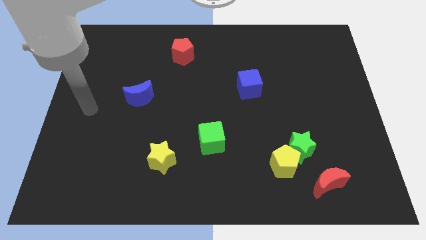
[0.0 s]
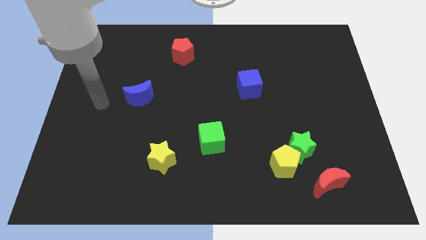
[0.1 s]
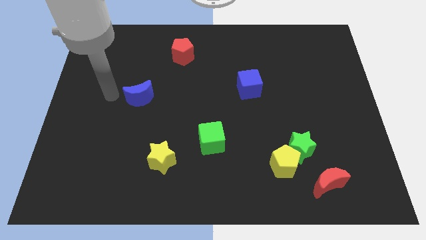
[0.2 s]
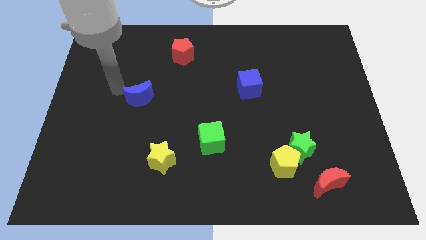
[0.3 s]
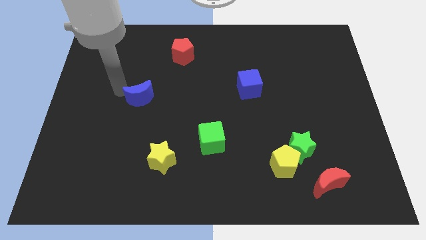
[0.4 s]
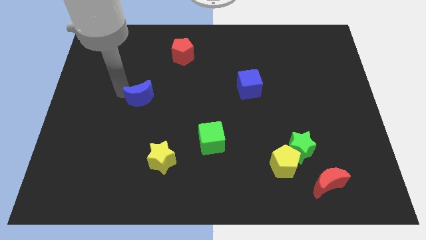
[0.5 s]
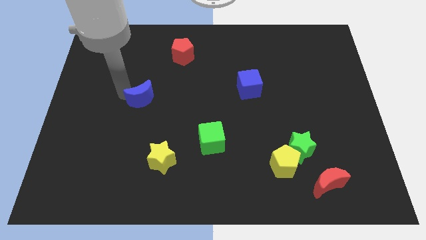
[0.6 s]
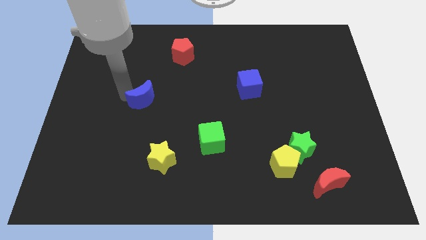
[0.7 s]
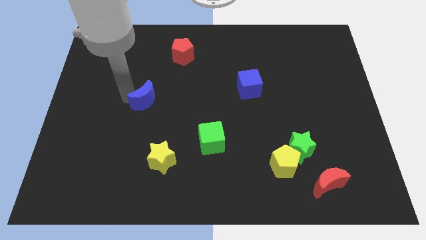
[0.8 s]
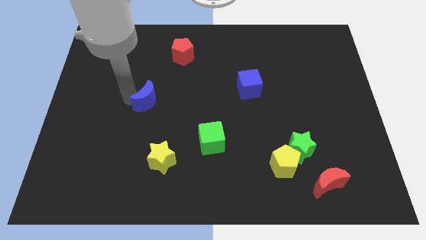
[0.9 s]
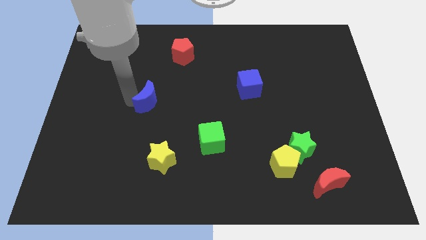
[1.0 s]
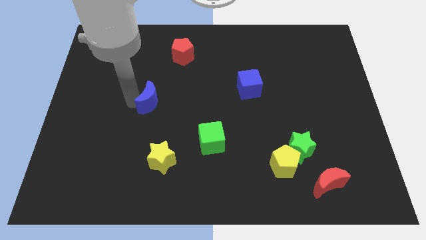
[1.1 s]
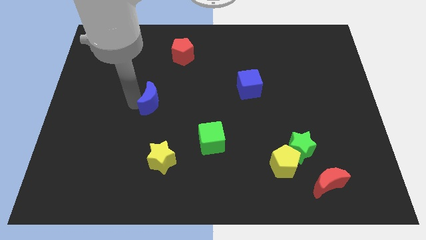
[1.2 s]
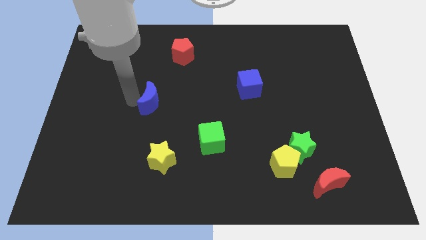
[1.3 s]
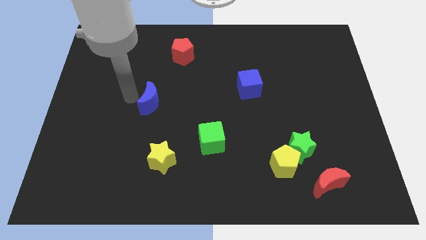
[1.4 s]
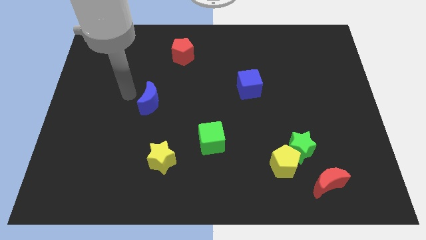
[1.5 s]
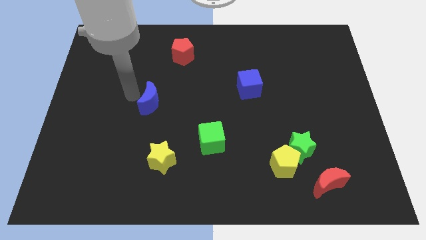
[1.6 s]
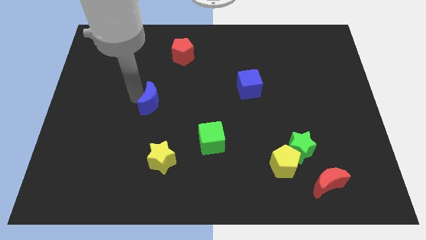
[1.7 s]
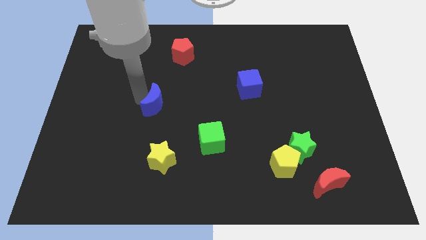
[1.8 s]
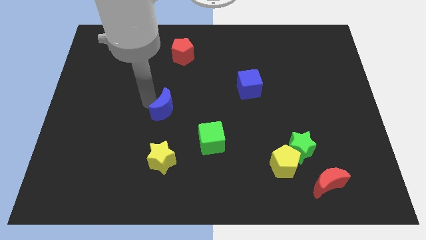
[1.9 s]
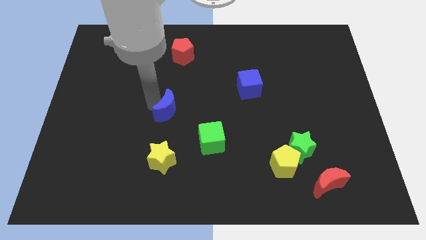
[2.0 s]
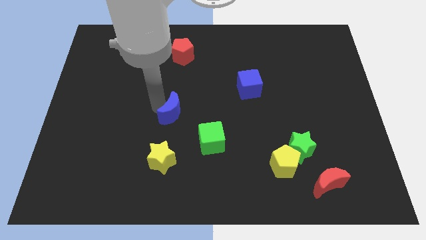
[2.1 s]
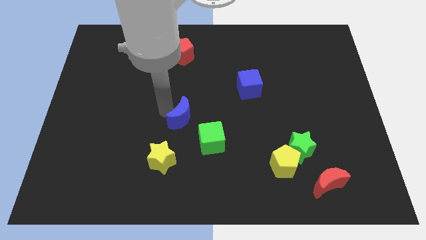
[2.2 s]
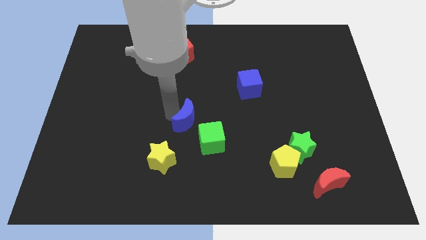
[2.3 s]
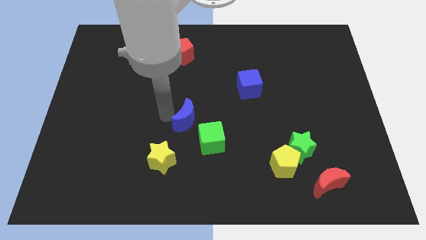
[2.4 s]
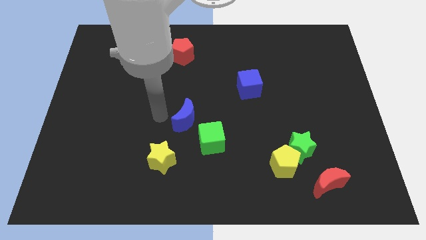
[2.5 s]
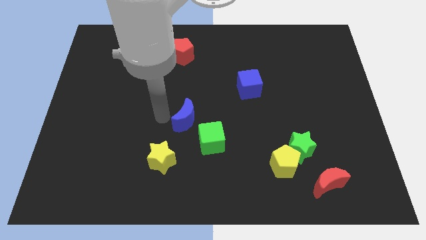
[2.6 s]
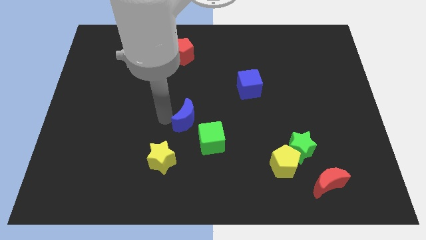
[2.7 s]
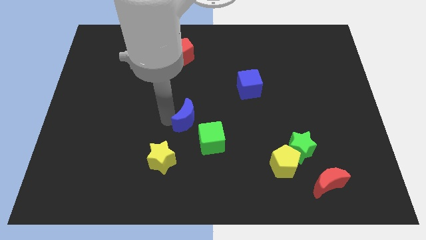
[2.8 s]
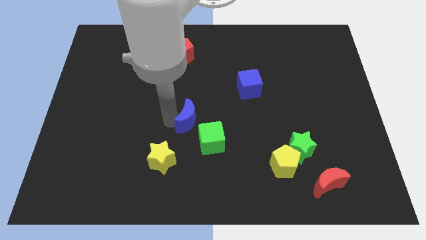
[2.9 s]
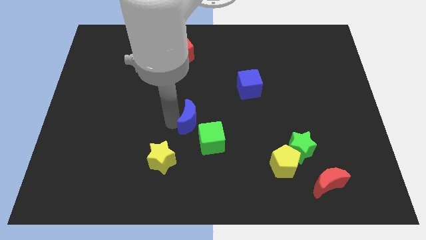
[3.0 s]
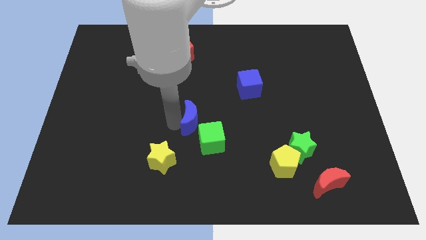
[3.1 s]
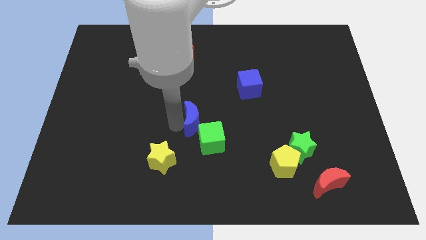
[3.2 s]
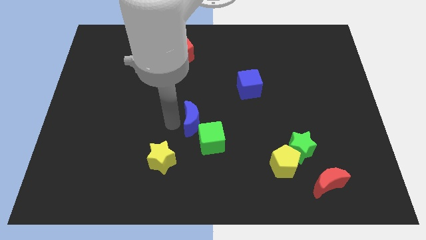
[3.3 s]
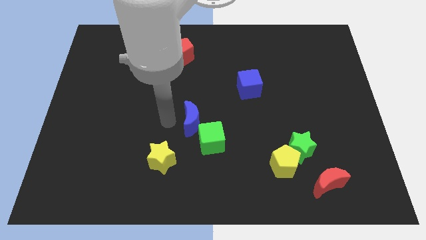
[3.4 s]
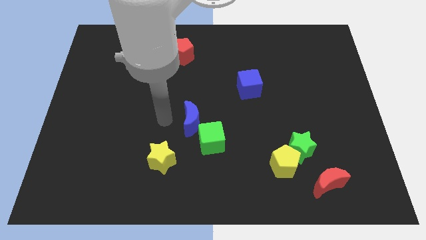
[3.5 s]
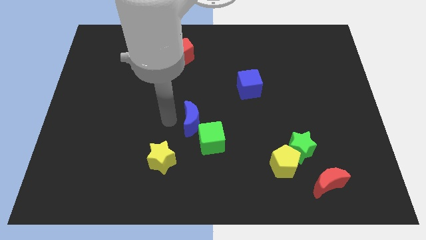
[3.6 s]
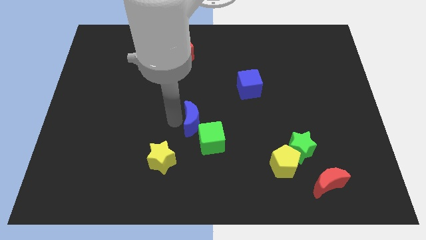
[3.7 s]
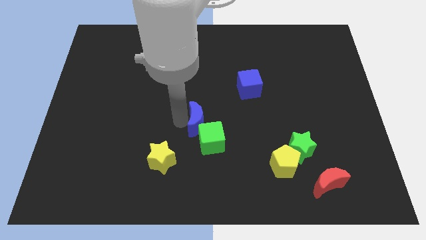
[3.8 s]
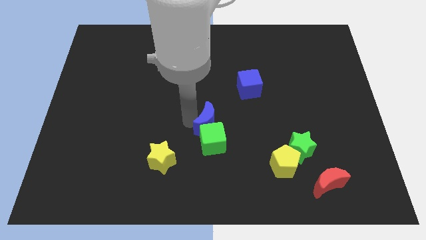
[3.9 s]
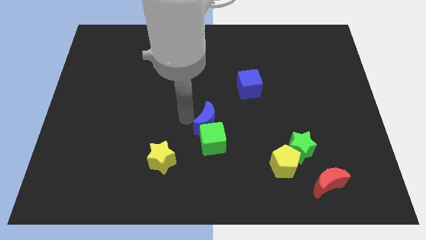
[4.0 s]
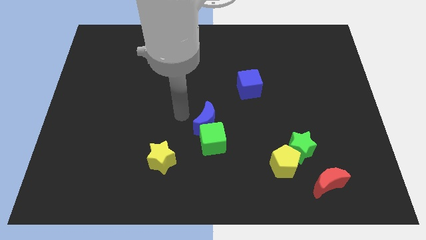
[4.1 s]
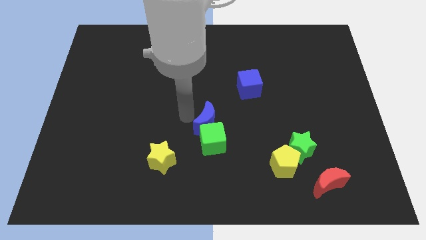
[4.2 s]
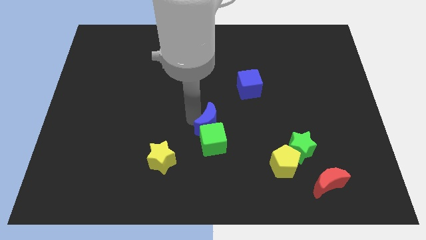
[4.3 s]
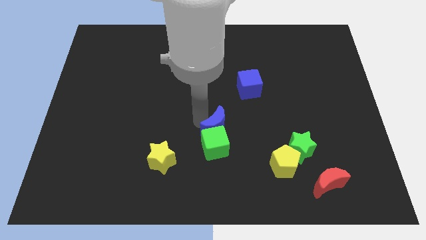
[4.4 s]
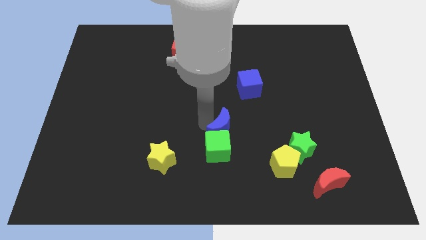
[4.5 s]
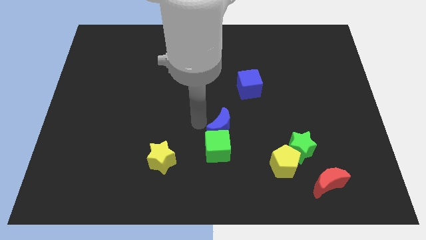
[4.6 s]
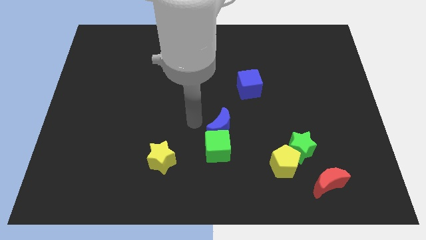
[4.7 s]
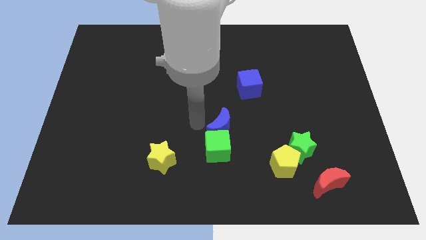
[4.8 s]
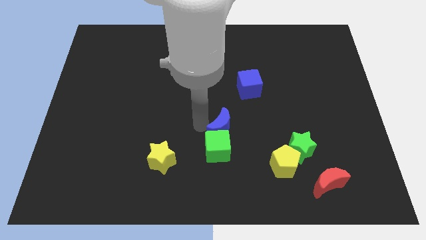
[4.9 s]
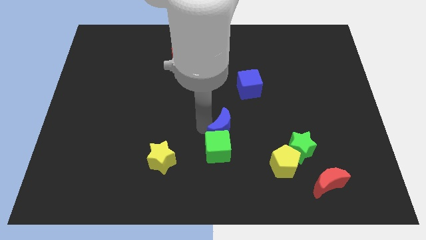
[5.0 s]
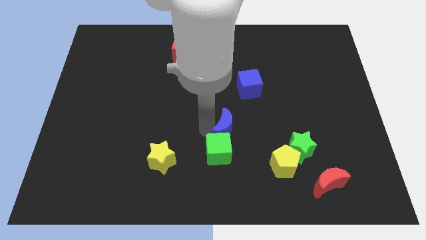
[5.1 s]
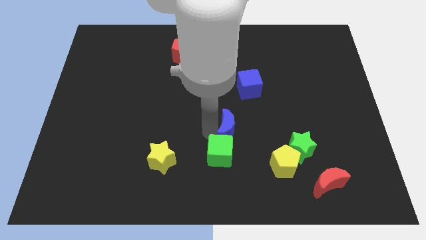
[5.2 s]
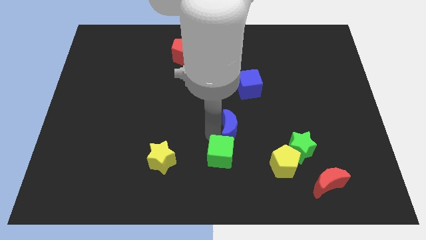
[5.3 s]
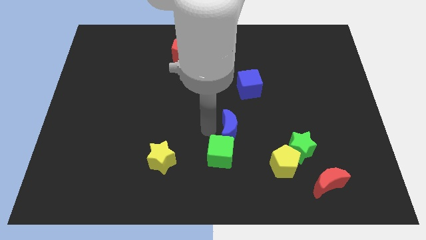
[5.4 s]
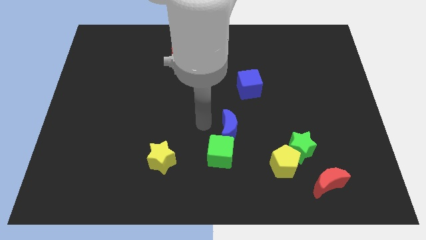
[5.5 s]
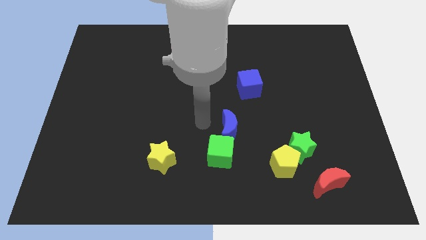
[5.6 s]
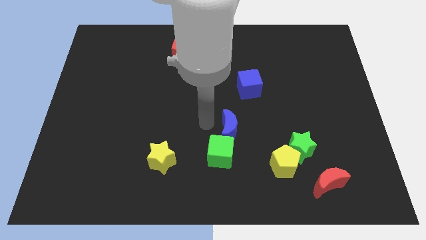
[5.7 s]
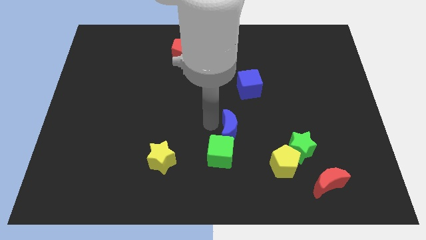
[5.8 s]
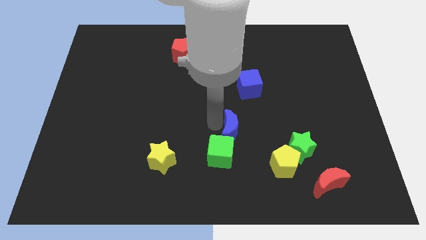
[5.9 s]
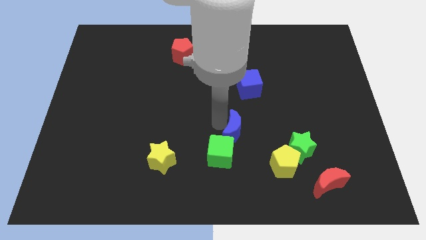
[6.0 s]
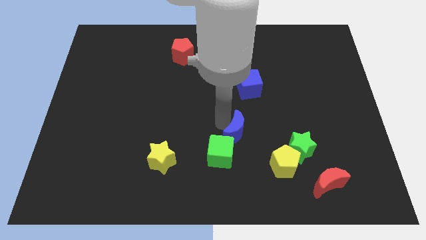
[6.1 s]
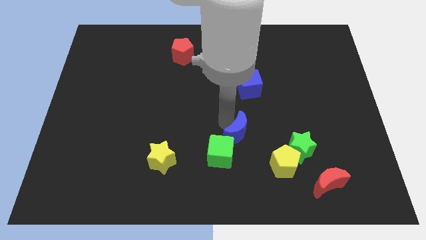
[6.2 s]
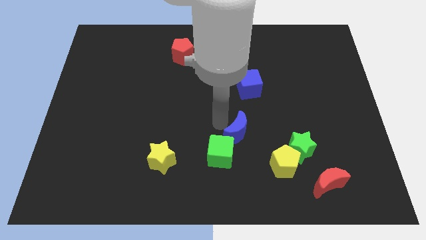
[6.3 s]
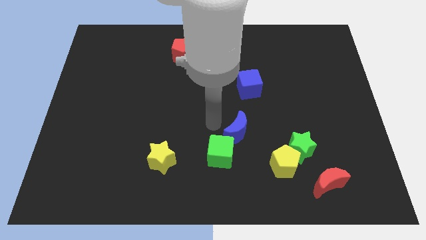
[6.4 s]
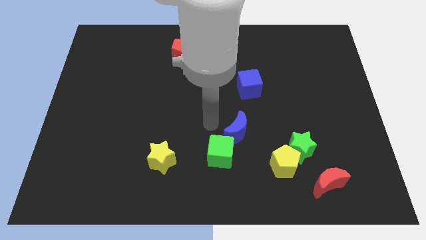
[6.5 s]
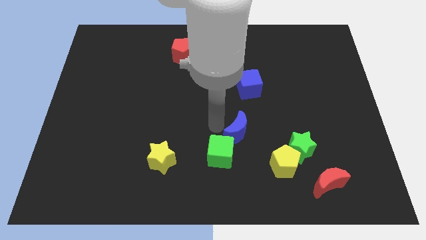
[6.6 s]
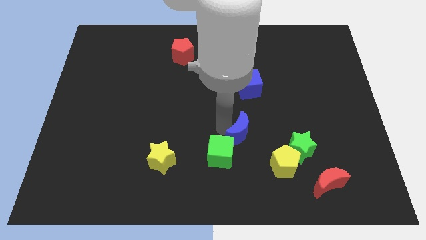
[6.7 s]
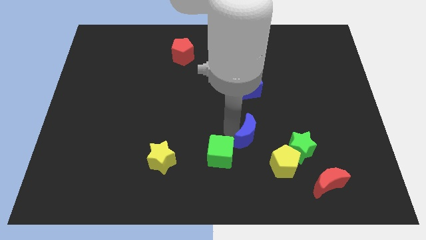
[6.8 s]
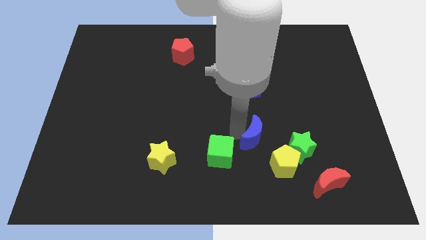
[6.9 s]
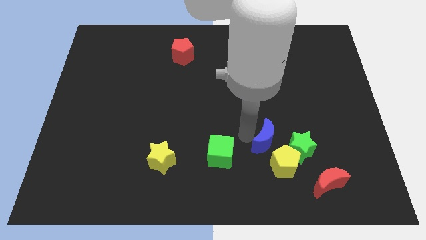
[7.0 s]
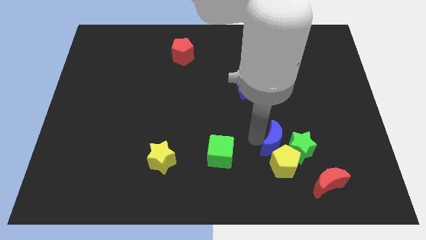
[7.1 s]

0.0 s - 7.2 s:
move the blue moon next to the green star
